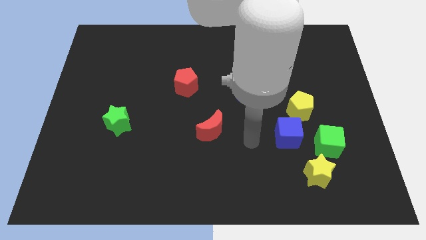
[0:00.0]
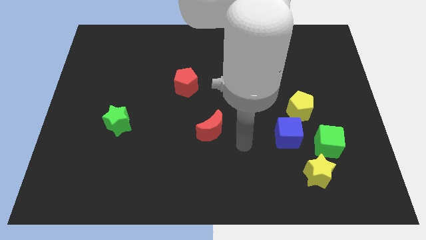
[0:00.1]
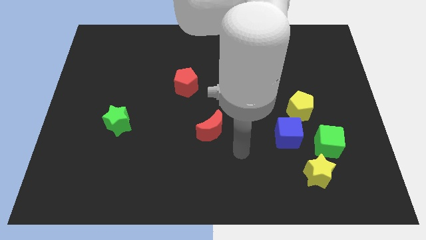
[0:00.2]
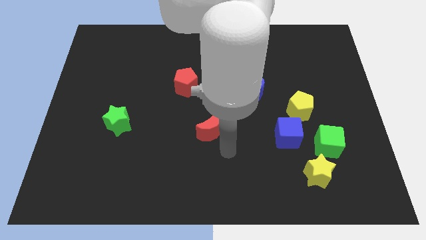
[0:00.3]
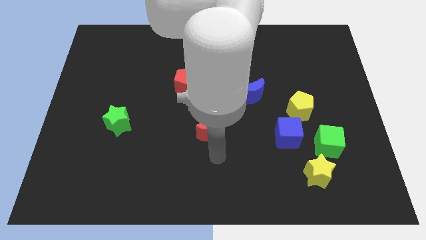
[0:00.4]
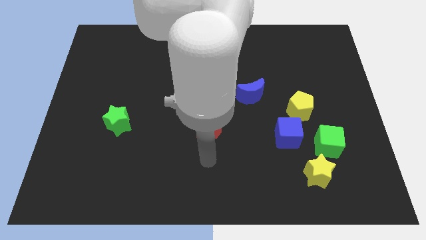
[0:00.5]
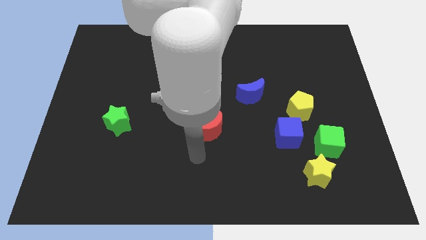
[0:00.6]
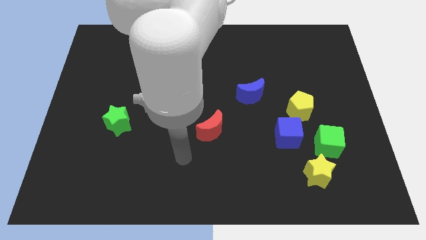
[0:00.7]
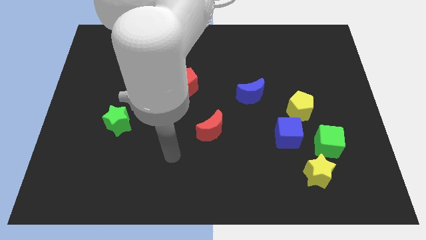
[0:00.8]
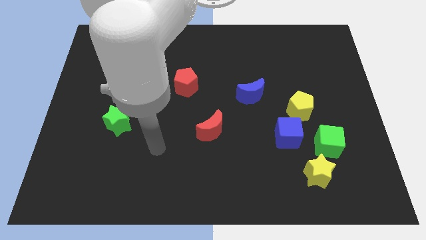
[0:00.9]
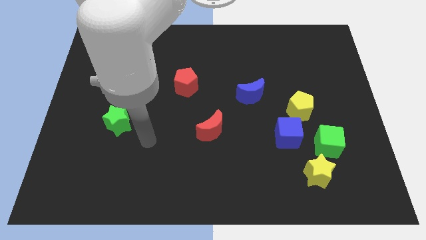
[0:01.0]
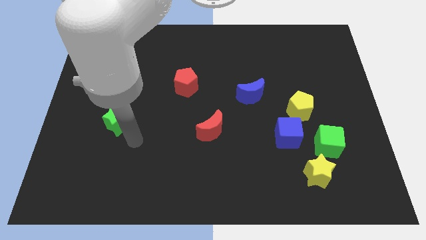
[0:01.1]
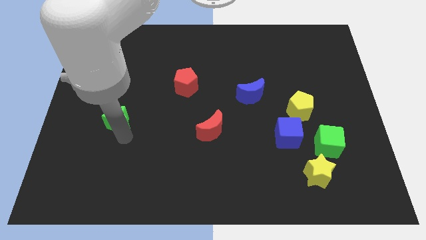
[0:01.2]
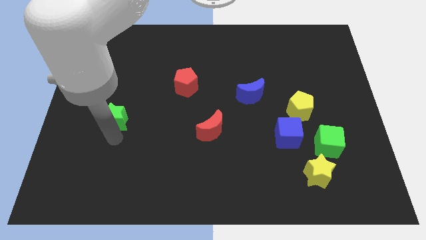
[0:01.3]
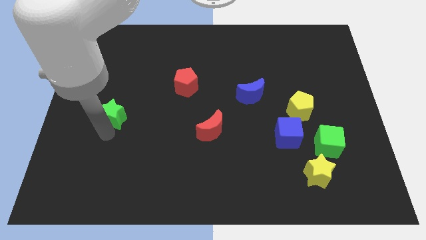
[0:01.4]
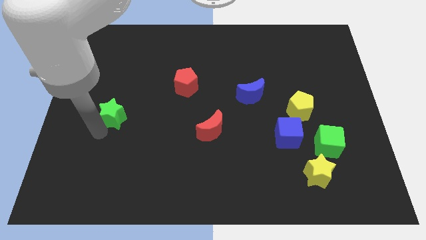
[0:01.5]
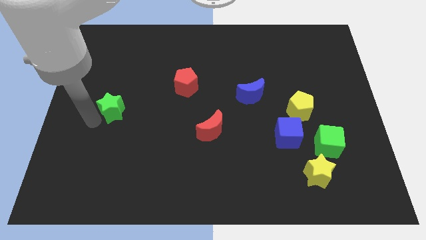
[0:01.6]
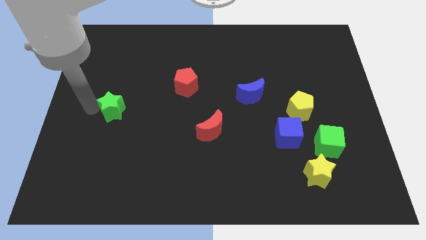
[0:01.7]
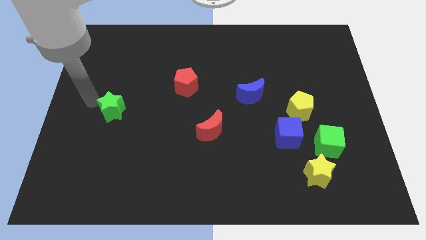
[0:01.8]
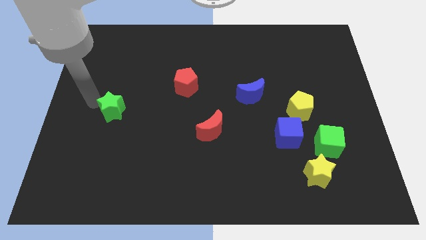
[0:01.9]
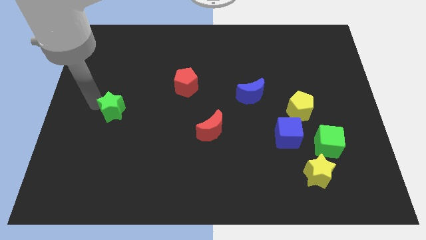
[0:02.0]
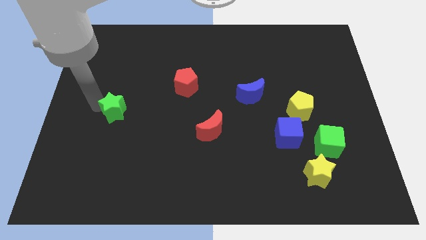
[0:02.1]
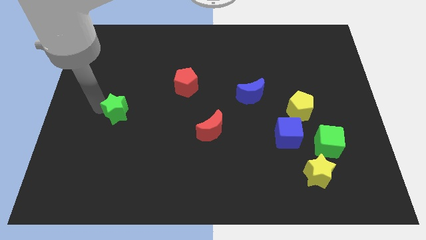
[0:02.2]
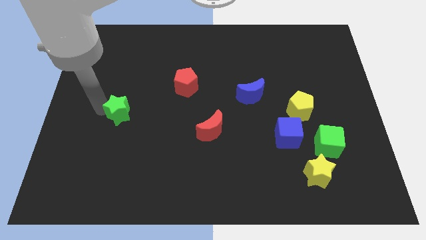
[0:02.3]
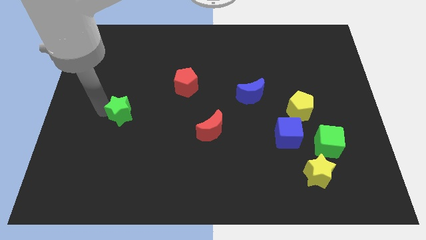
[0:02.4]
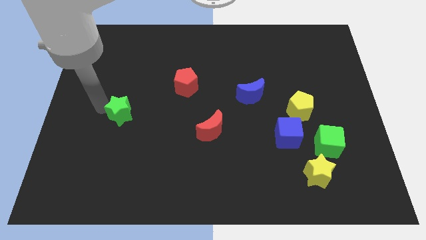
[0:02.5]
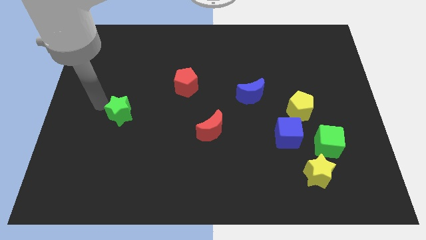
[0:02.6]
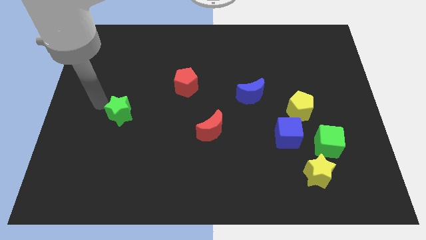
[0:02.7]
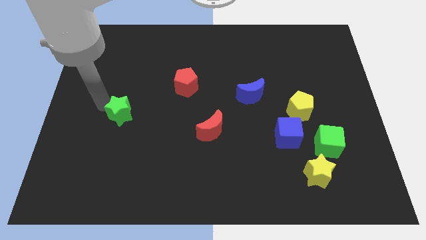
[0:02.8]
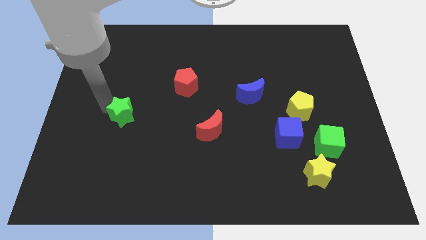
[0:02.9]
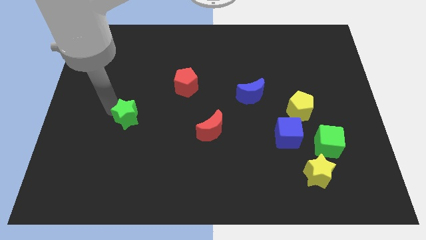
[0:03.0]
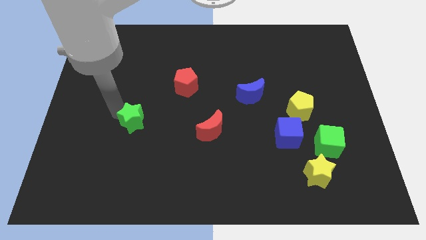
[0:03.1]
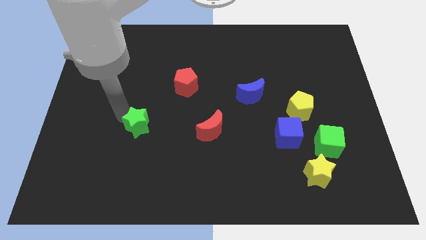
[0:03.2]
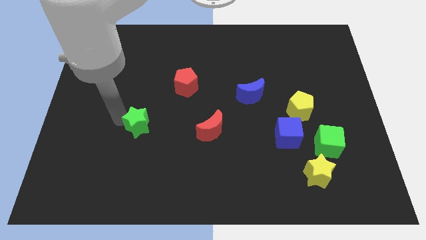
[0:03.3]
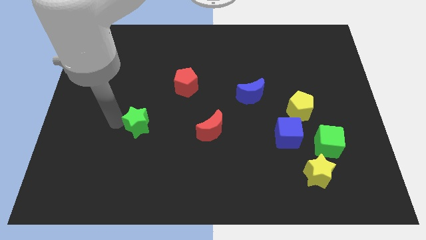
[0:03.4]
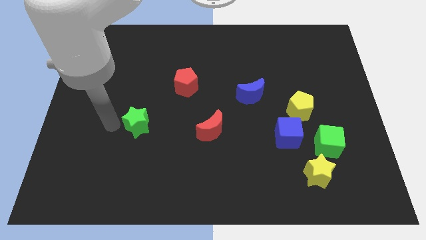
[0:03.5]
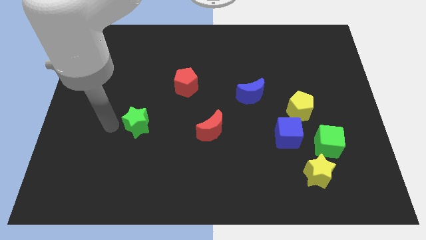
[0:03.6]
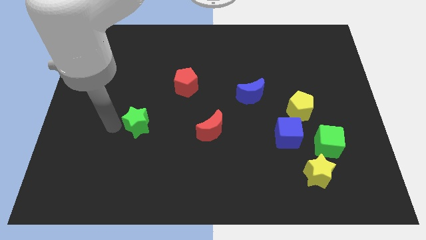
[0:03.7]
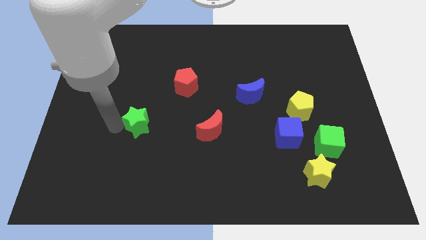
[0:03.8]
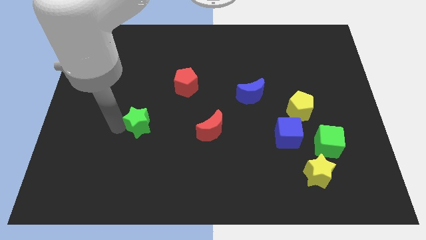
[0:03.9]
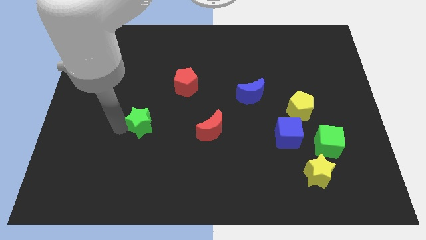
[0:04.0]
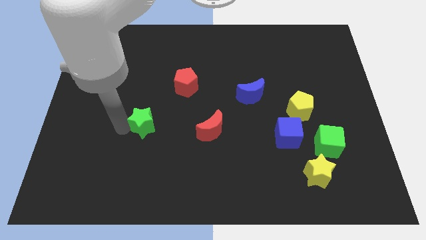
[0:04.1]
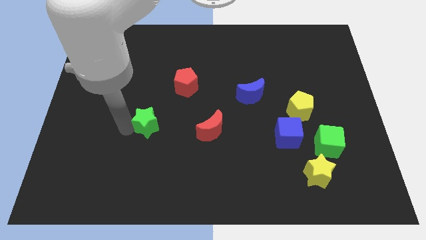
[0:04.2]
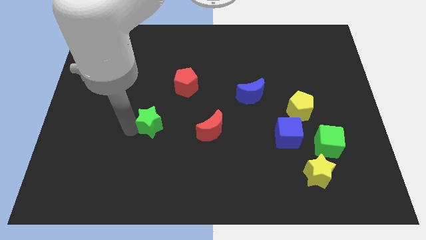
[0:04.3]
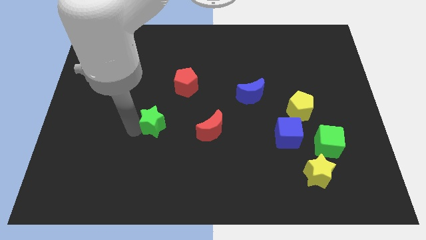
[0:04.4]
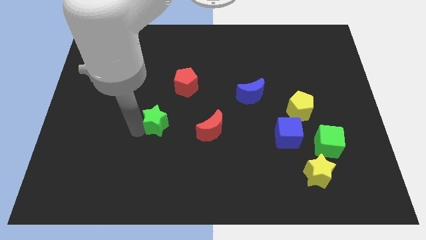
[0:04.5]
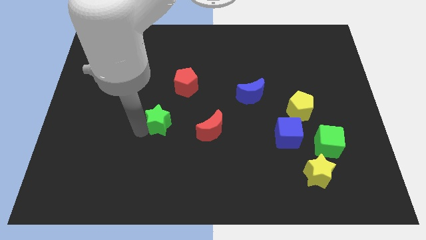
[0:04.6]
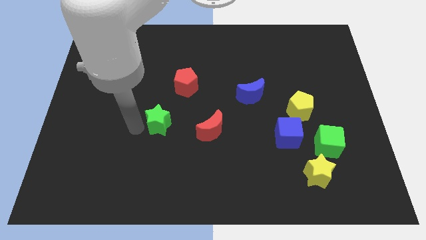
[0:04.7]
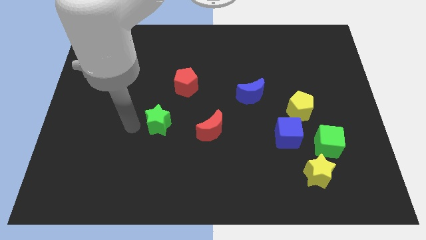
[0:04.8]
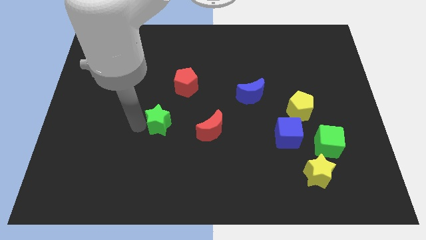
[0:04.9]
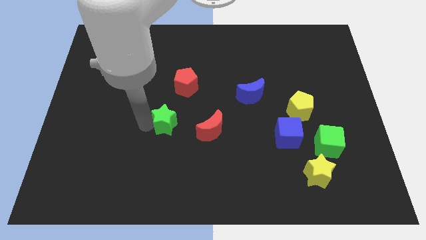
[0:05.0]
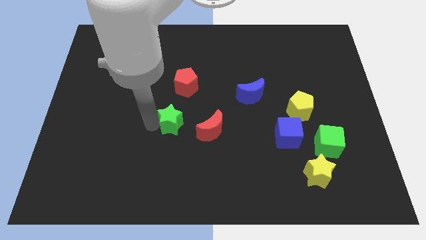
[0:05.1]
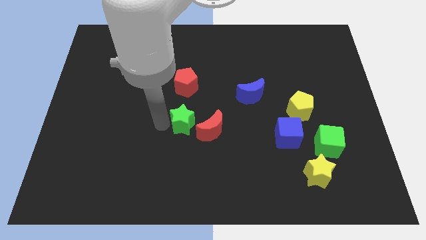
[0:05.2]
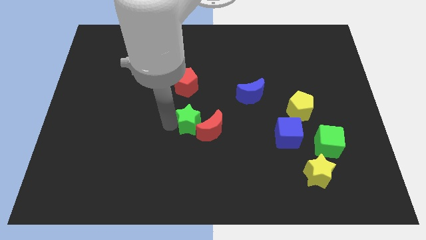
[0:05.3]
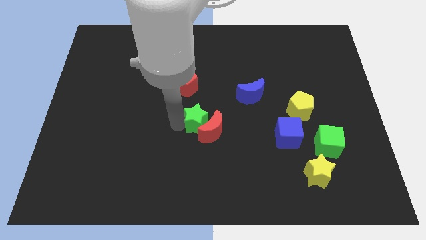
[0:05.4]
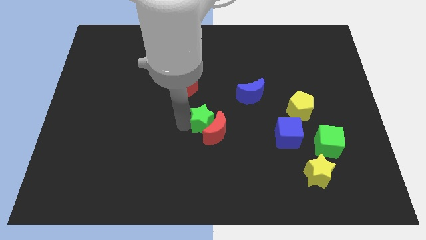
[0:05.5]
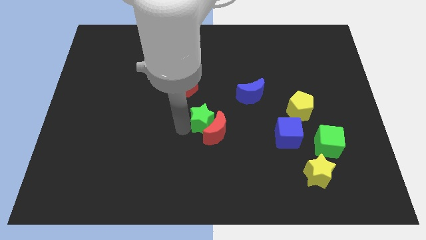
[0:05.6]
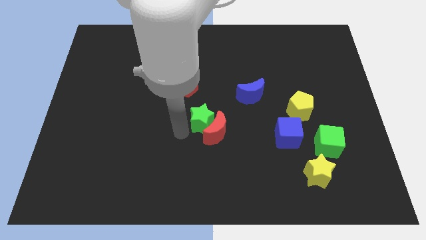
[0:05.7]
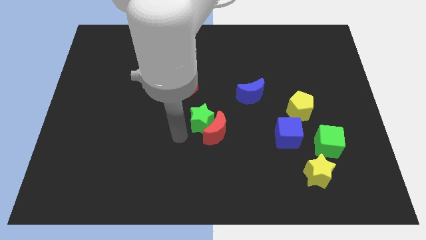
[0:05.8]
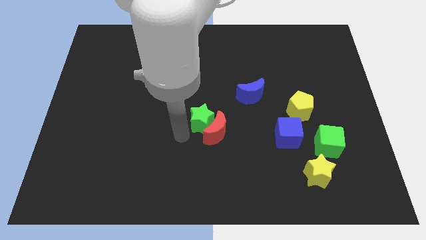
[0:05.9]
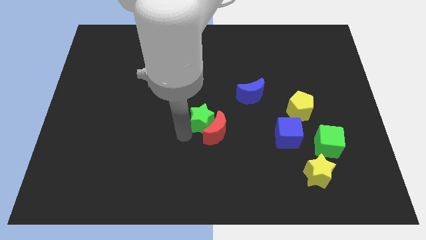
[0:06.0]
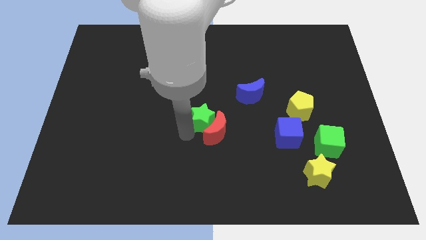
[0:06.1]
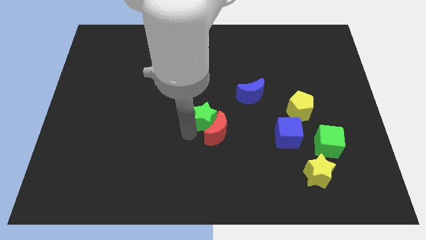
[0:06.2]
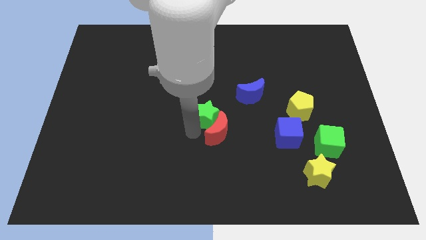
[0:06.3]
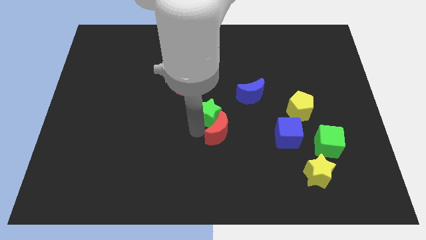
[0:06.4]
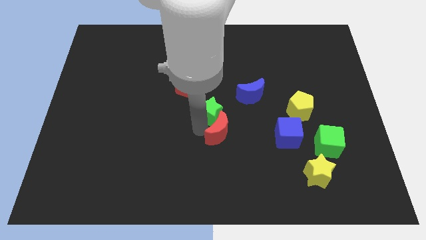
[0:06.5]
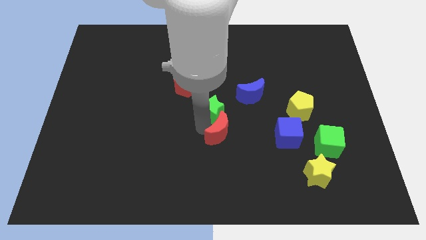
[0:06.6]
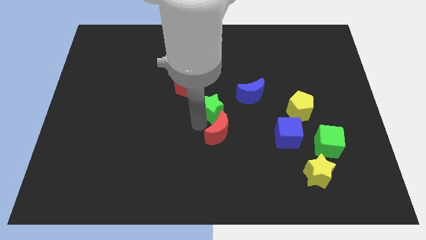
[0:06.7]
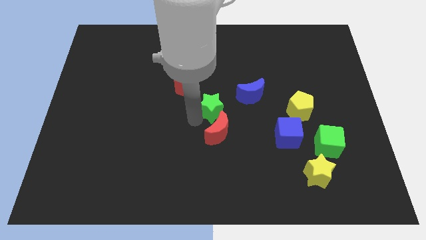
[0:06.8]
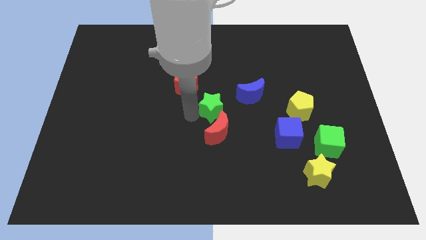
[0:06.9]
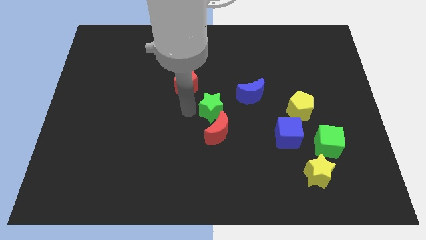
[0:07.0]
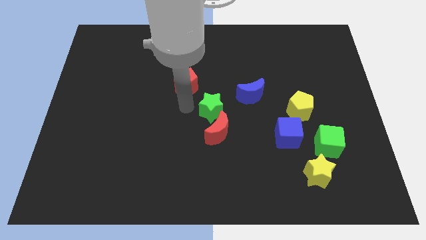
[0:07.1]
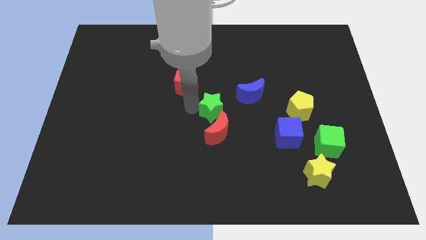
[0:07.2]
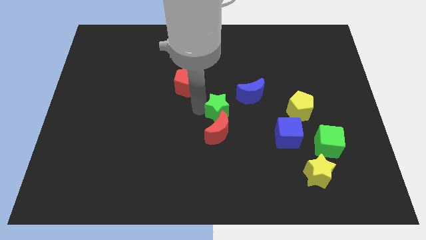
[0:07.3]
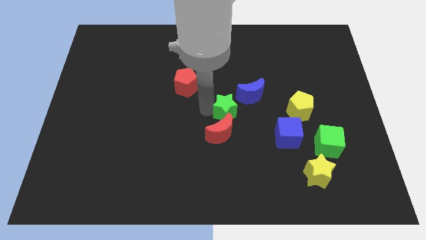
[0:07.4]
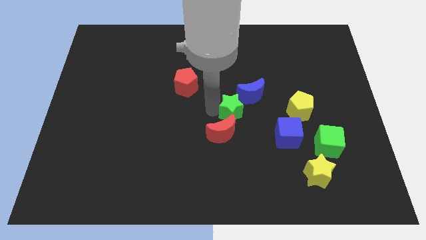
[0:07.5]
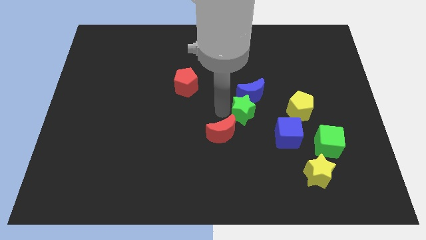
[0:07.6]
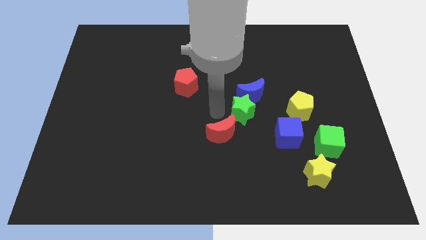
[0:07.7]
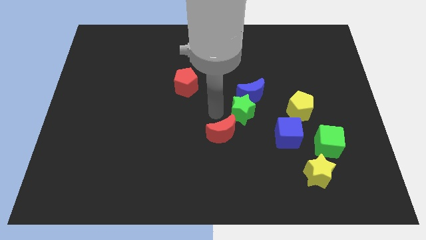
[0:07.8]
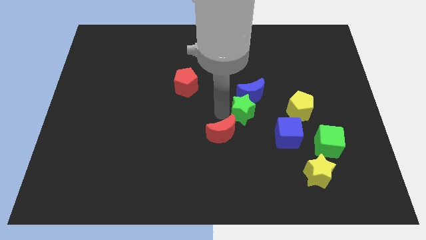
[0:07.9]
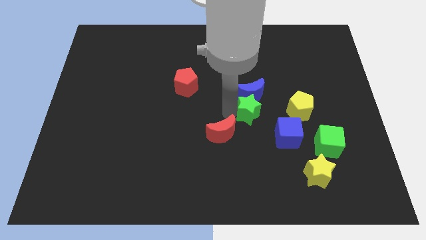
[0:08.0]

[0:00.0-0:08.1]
move the green star to the bottom right side of the blue moon
